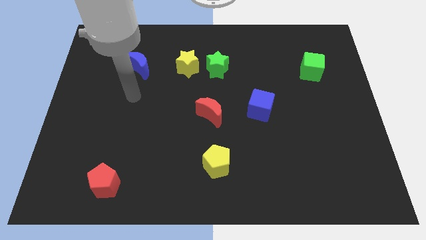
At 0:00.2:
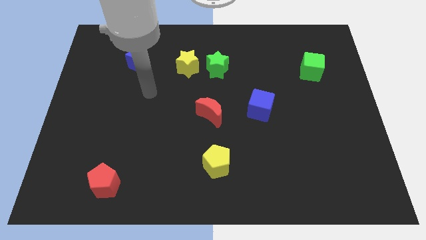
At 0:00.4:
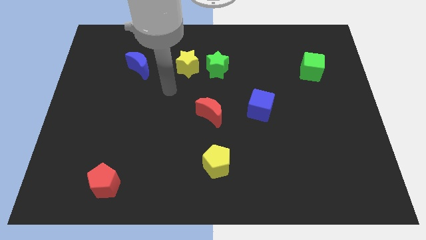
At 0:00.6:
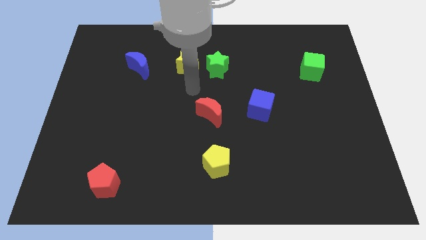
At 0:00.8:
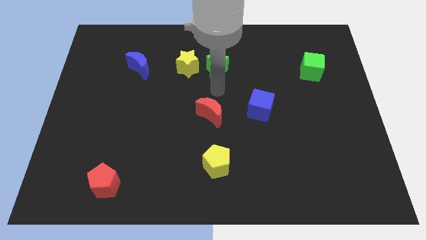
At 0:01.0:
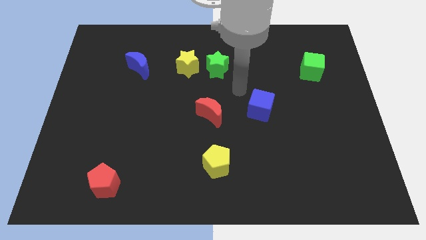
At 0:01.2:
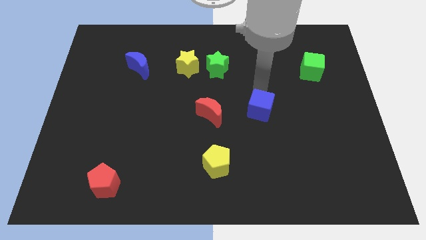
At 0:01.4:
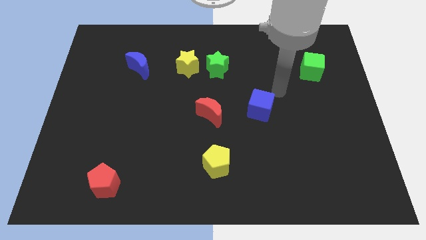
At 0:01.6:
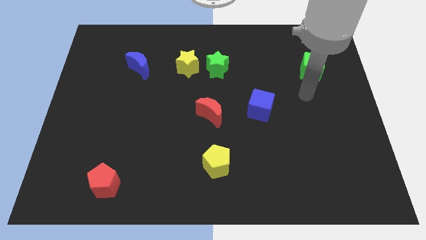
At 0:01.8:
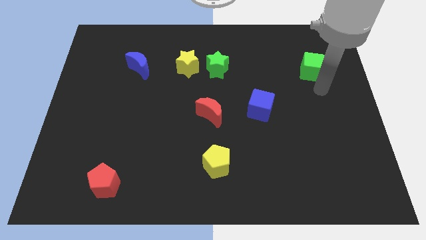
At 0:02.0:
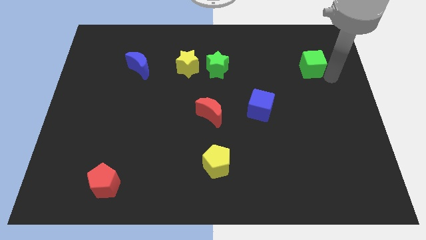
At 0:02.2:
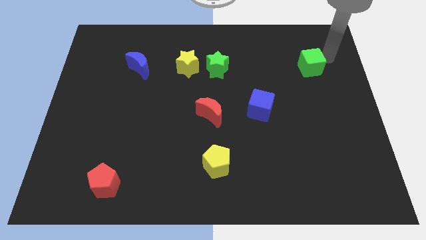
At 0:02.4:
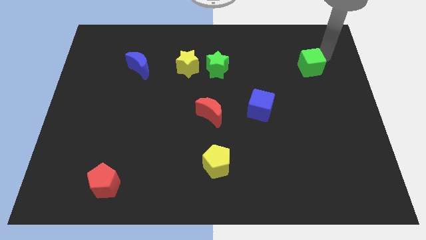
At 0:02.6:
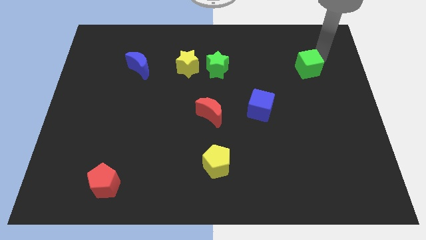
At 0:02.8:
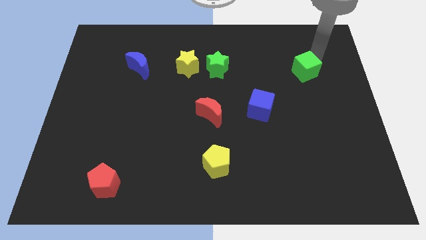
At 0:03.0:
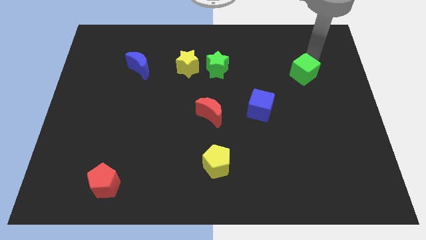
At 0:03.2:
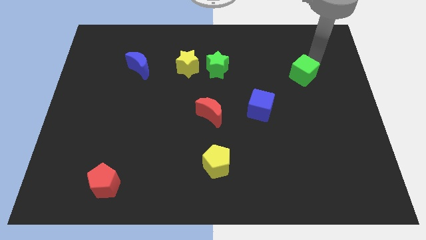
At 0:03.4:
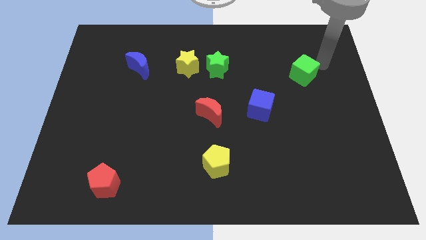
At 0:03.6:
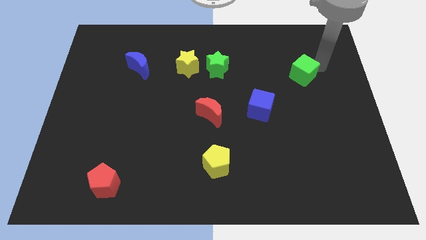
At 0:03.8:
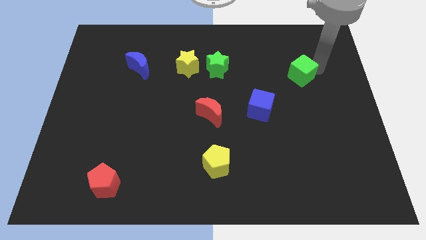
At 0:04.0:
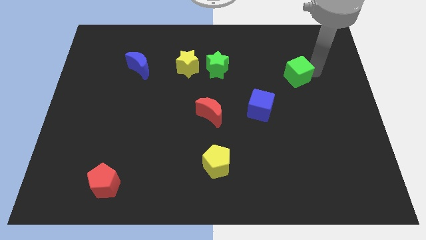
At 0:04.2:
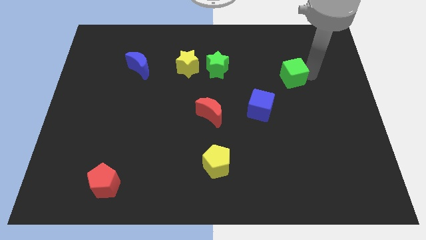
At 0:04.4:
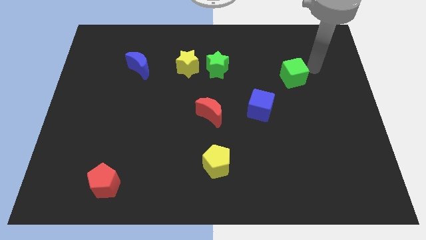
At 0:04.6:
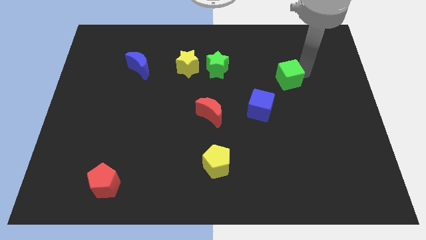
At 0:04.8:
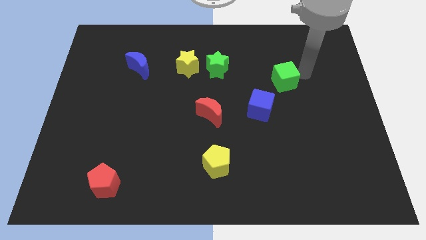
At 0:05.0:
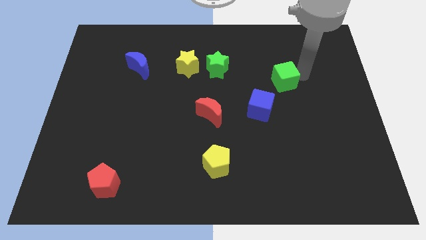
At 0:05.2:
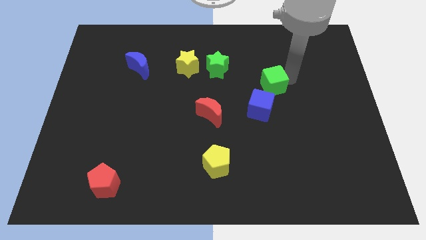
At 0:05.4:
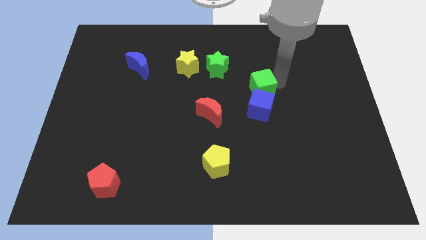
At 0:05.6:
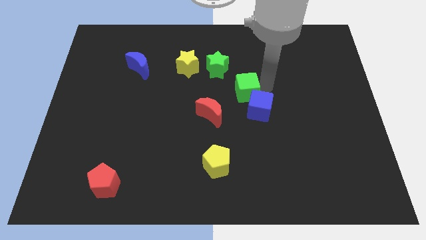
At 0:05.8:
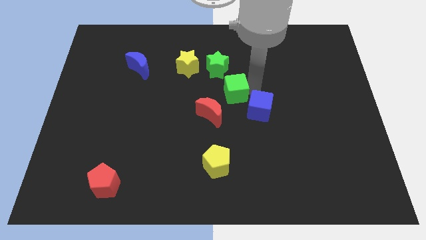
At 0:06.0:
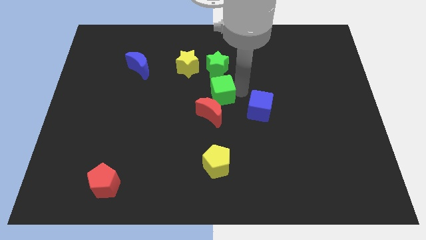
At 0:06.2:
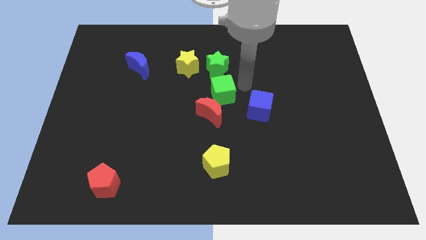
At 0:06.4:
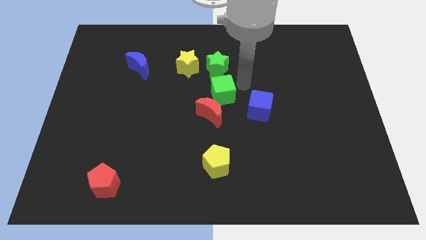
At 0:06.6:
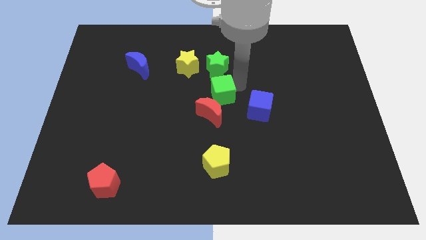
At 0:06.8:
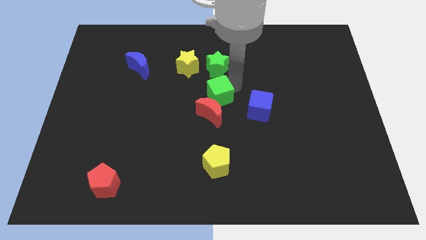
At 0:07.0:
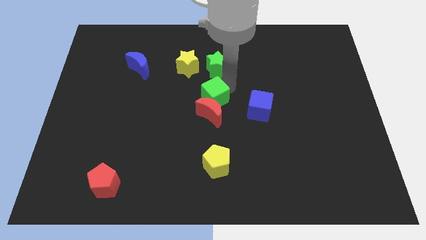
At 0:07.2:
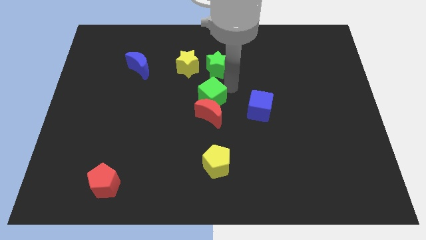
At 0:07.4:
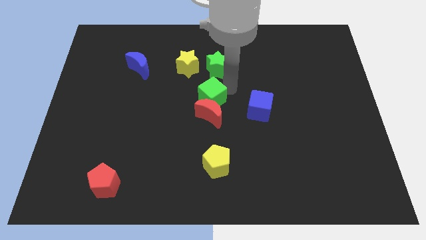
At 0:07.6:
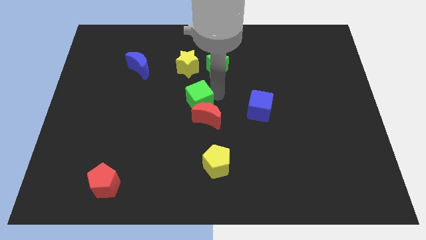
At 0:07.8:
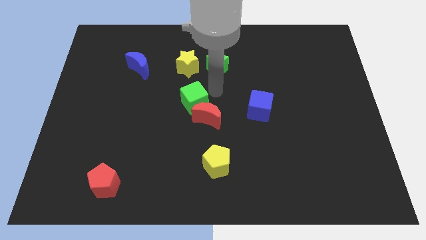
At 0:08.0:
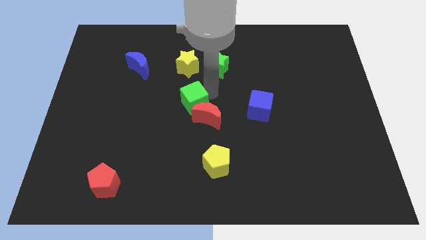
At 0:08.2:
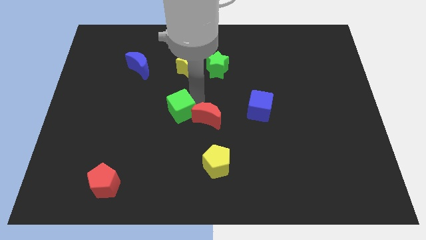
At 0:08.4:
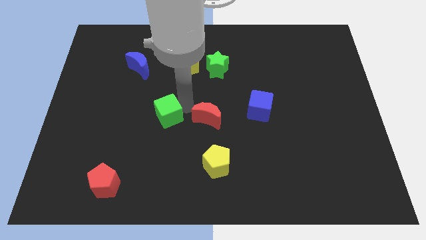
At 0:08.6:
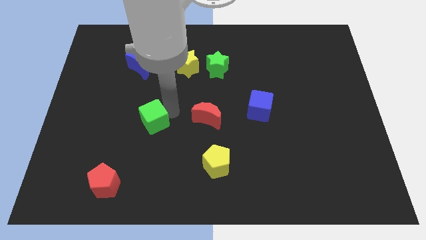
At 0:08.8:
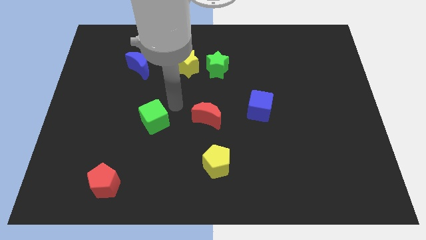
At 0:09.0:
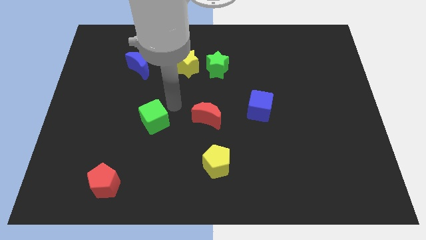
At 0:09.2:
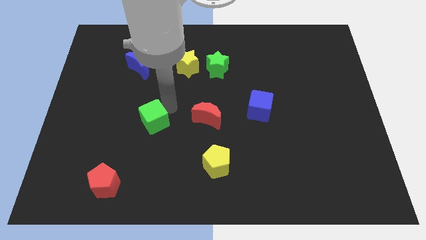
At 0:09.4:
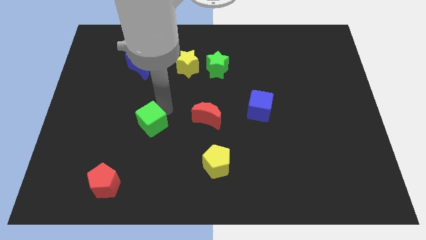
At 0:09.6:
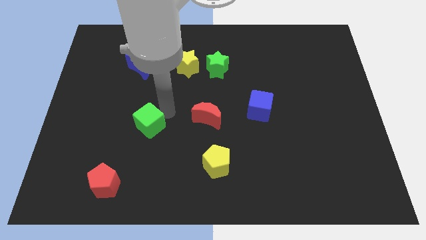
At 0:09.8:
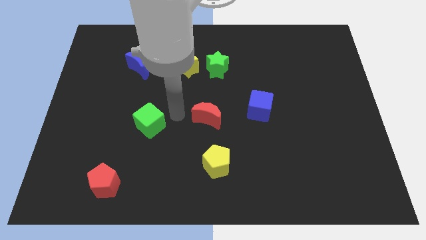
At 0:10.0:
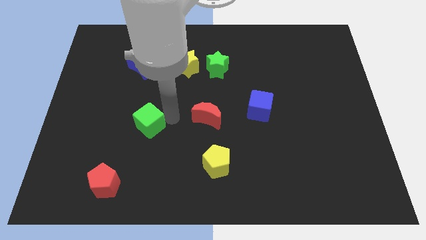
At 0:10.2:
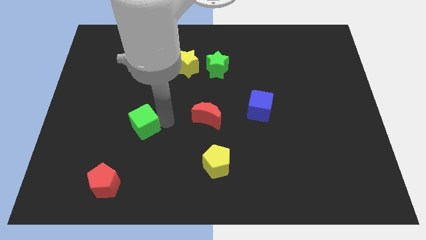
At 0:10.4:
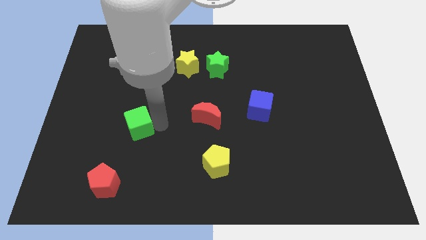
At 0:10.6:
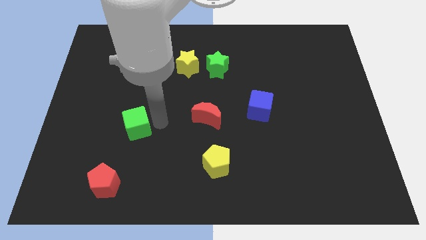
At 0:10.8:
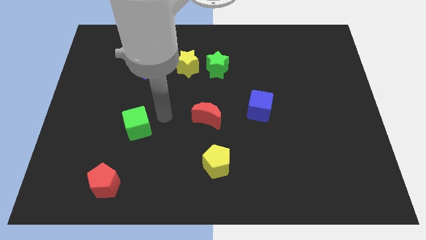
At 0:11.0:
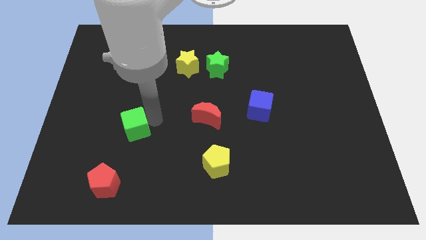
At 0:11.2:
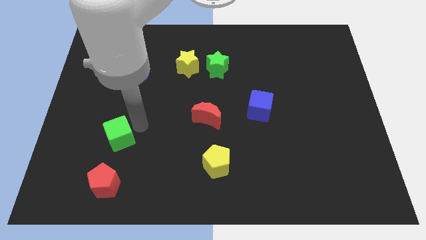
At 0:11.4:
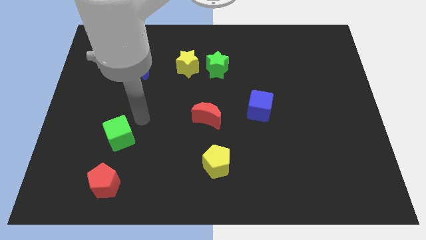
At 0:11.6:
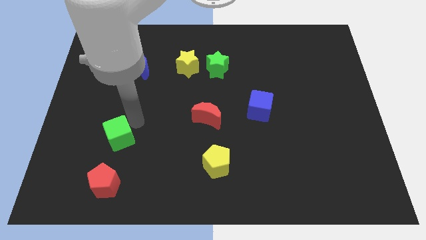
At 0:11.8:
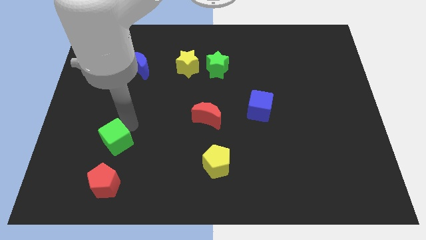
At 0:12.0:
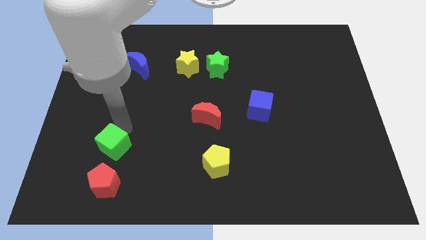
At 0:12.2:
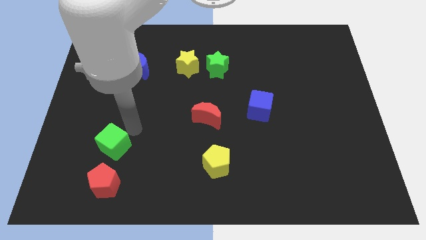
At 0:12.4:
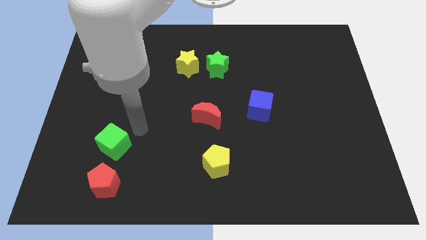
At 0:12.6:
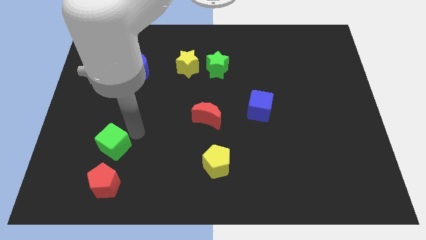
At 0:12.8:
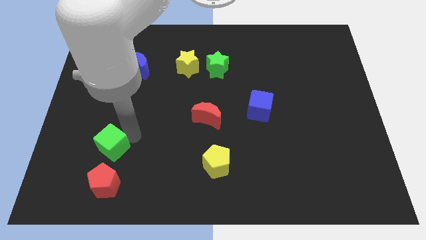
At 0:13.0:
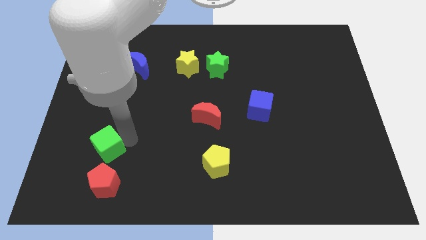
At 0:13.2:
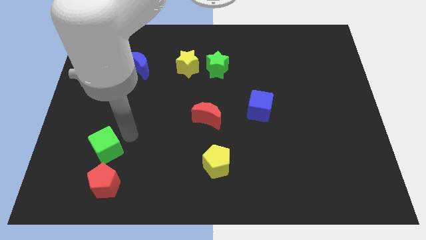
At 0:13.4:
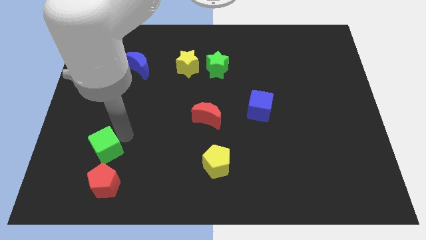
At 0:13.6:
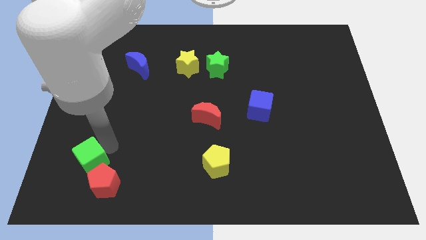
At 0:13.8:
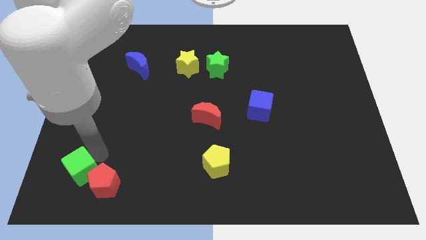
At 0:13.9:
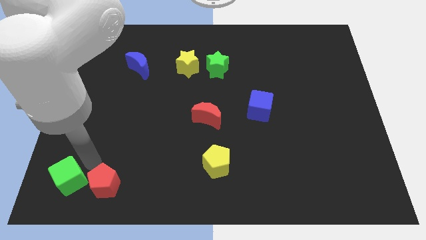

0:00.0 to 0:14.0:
push the green cube to the bottom left
